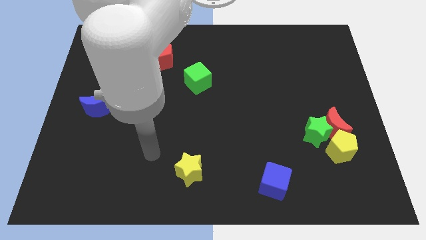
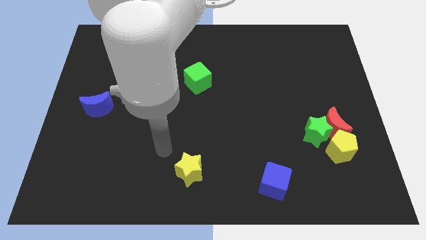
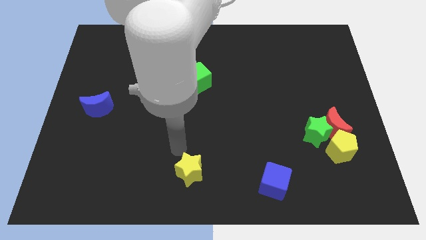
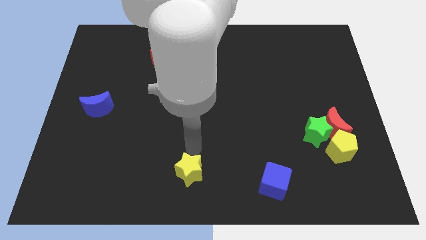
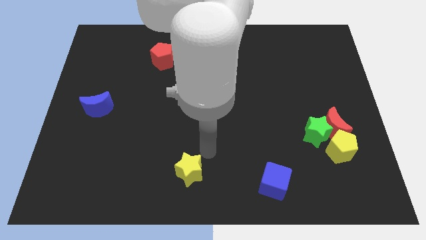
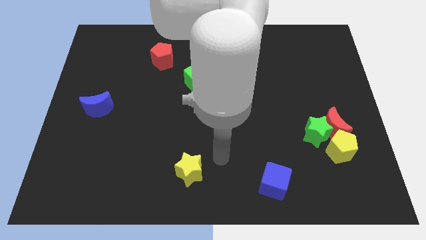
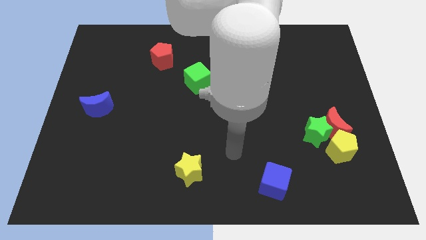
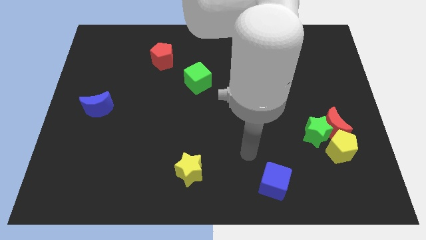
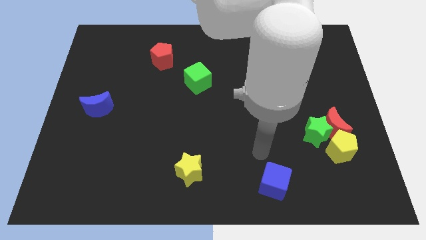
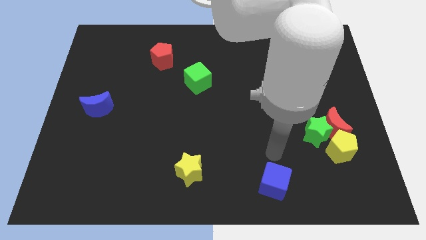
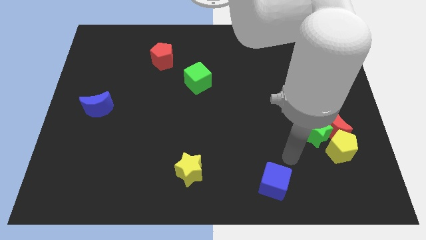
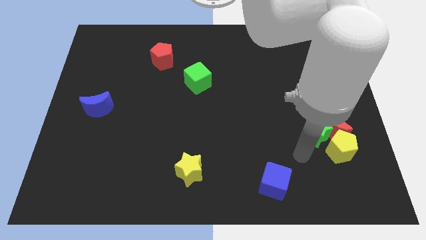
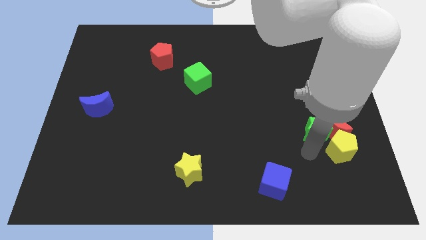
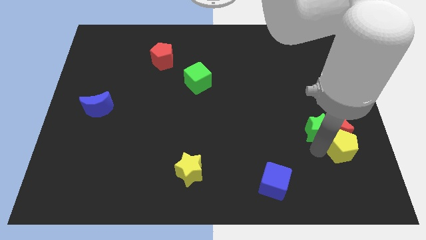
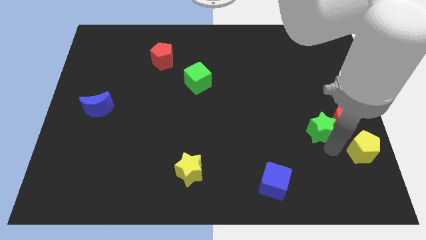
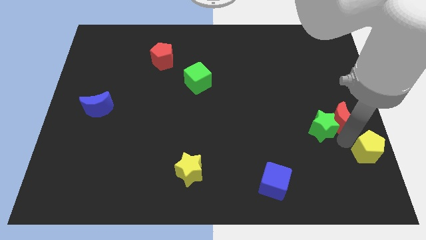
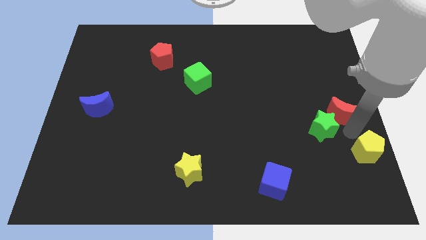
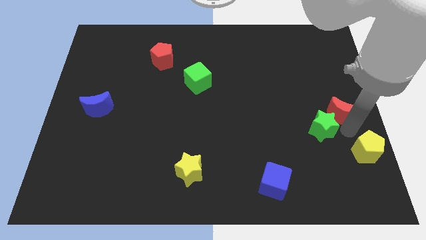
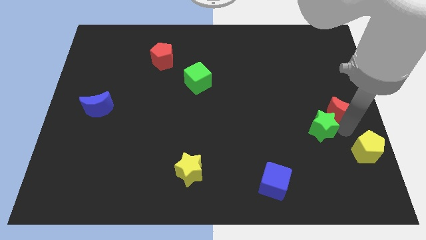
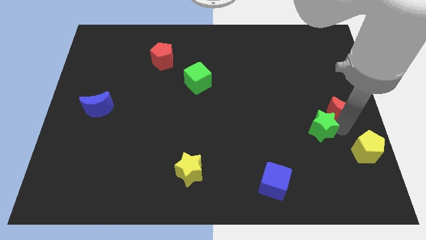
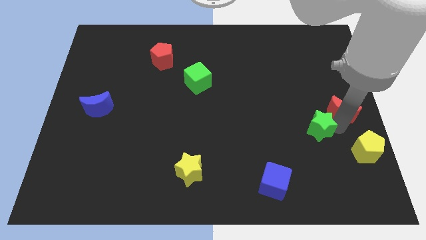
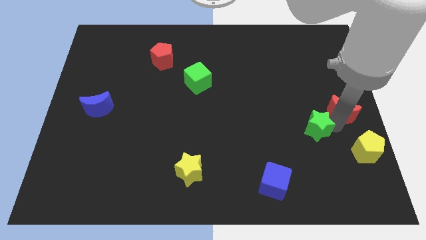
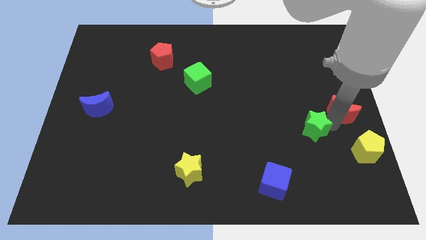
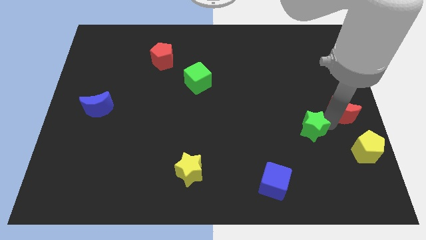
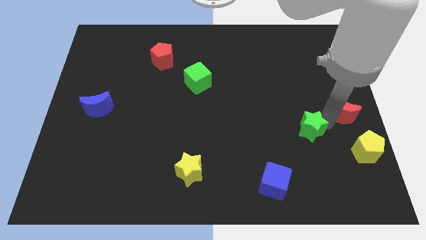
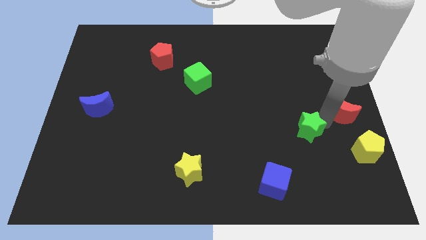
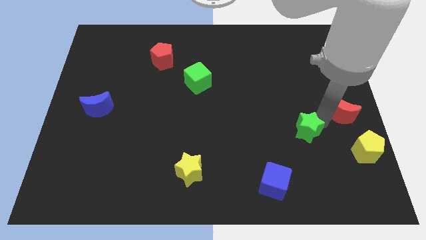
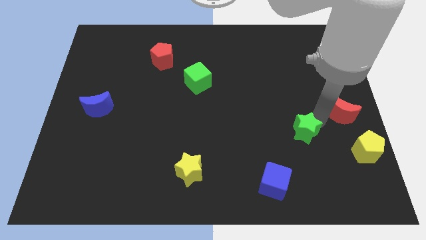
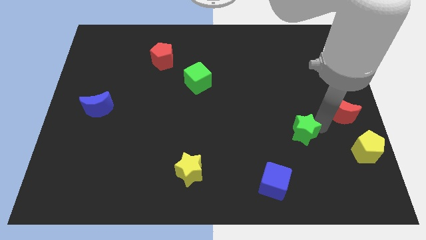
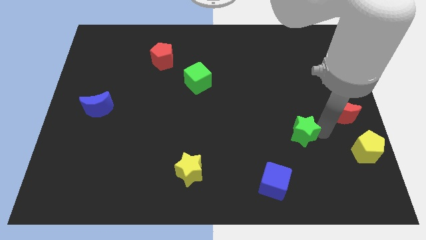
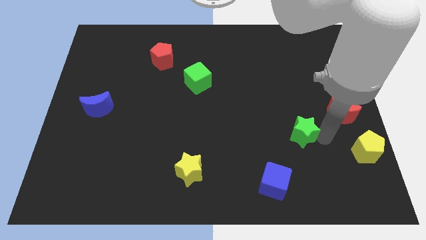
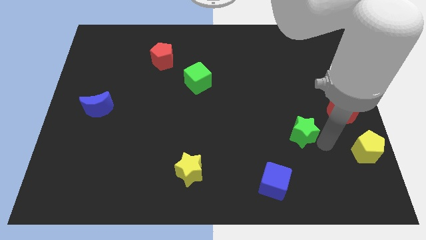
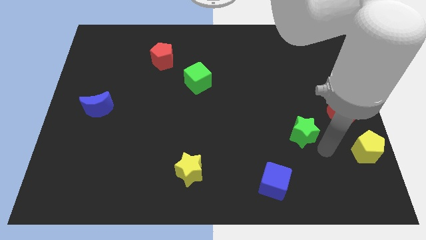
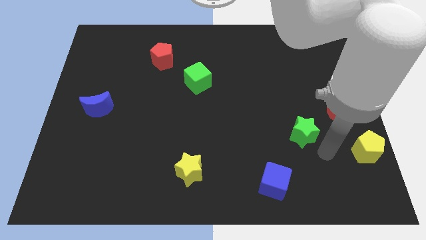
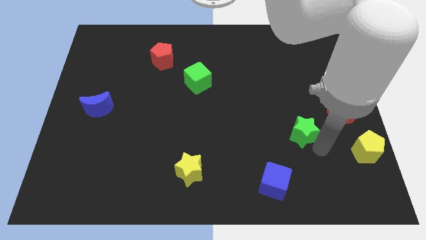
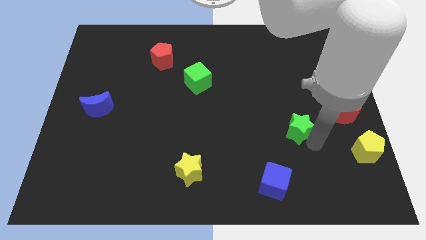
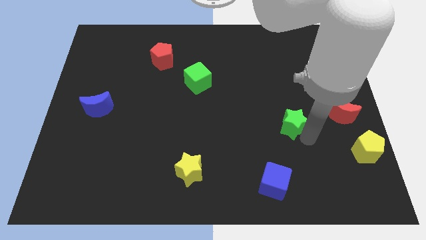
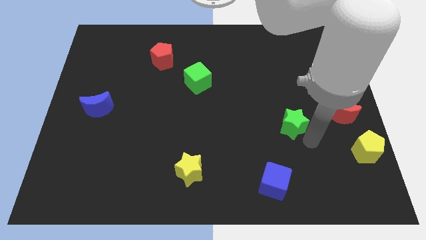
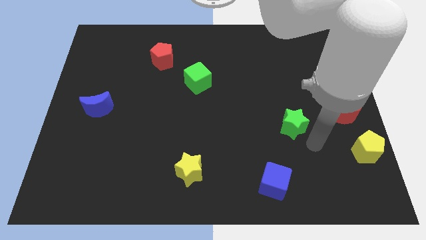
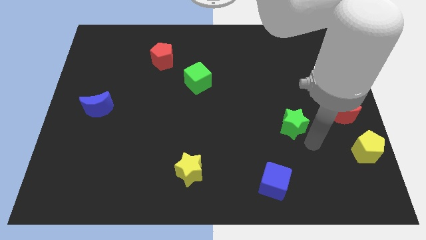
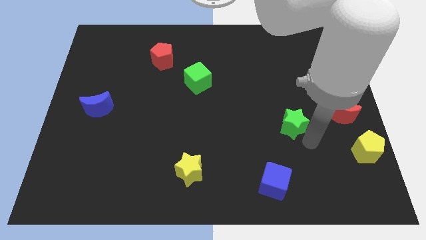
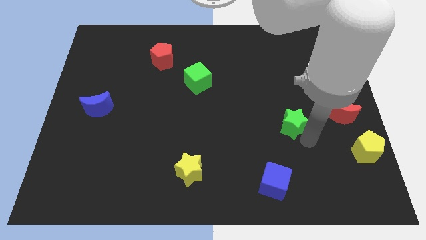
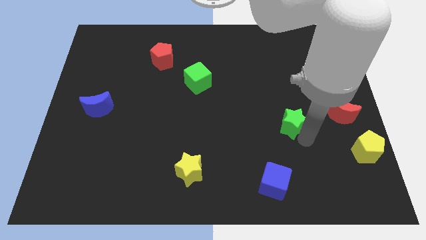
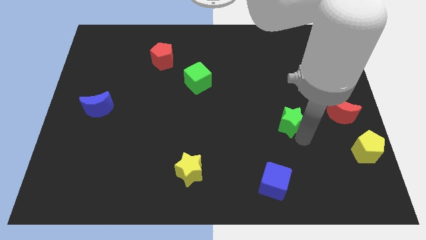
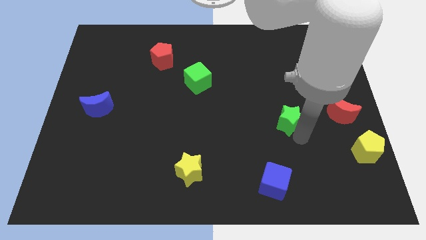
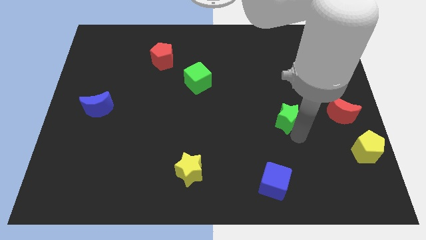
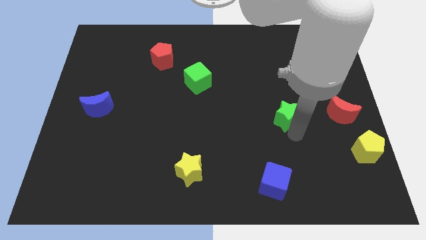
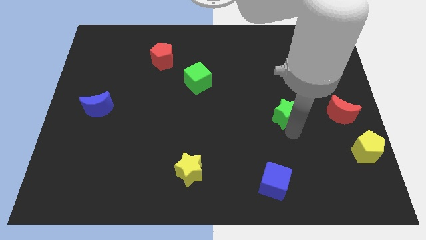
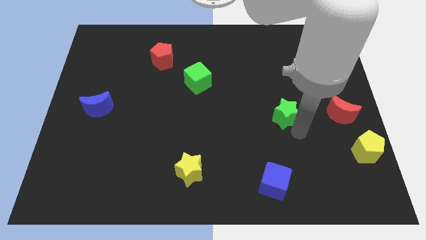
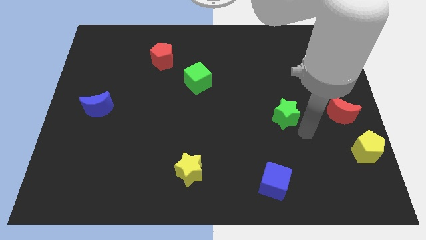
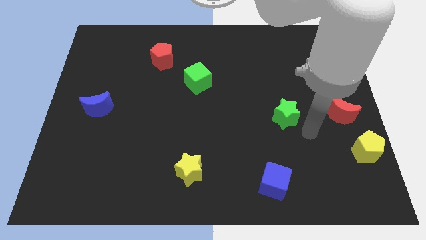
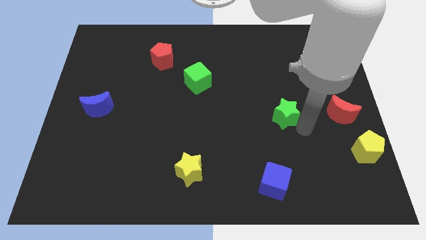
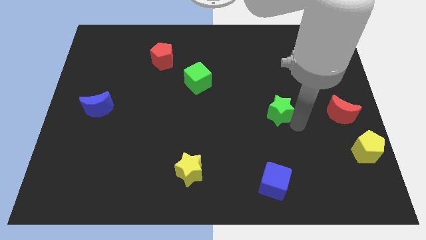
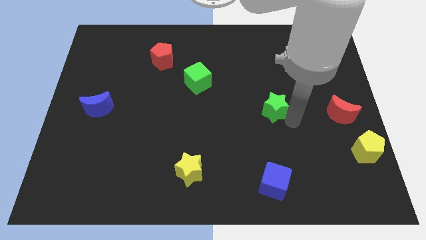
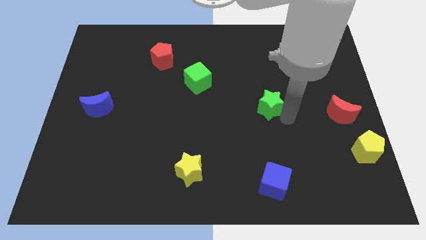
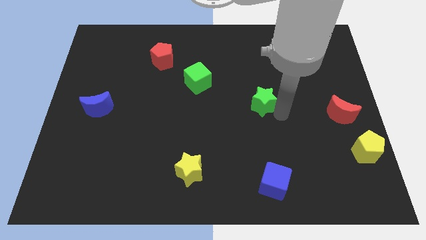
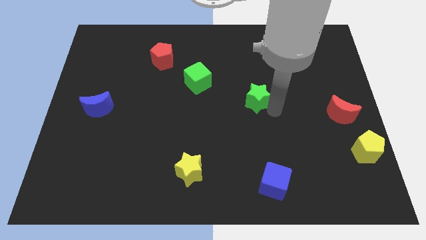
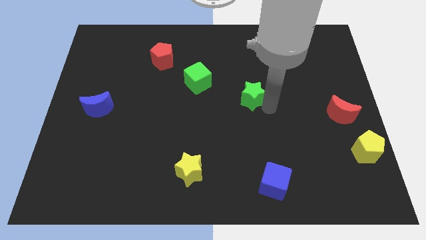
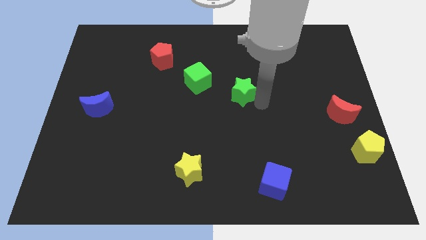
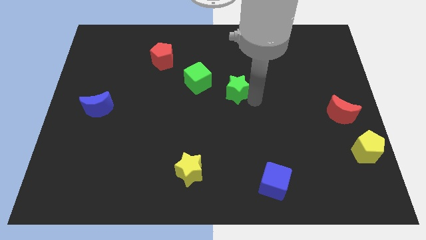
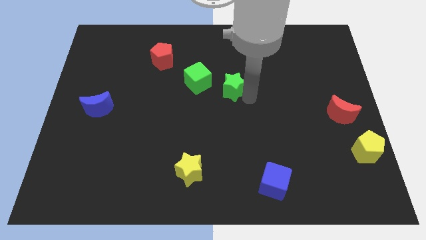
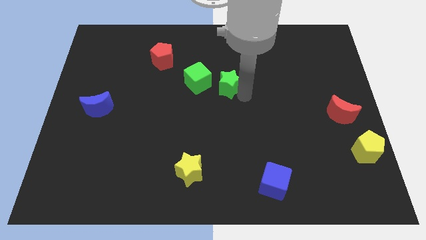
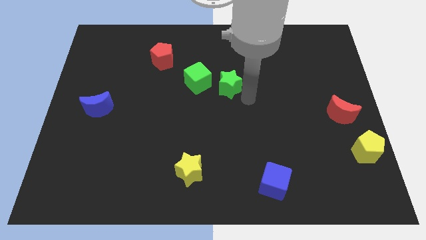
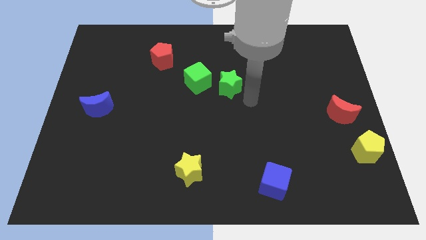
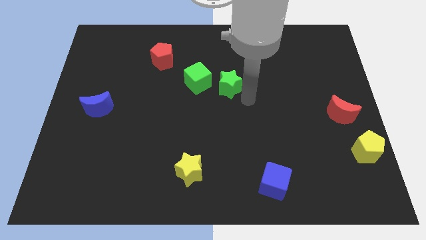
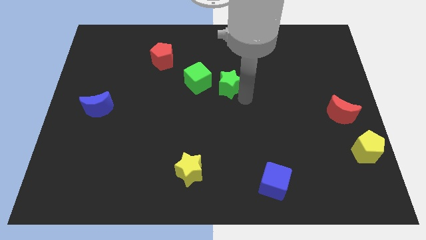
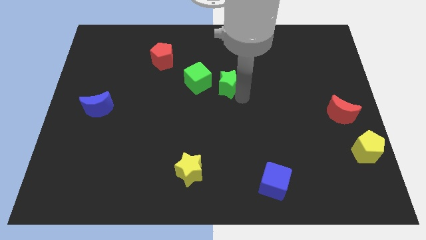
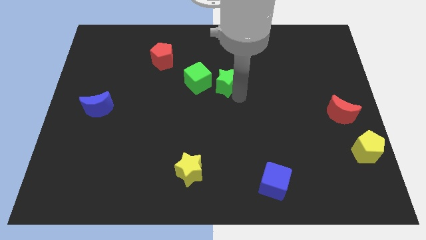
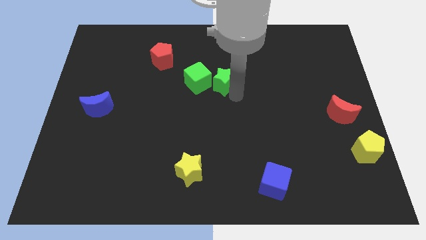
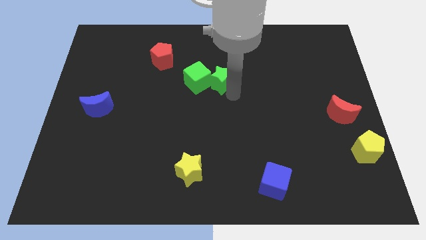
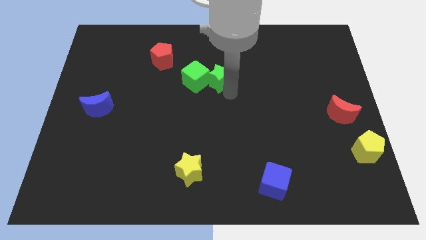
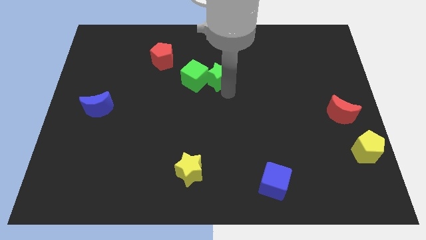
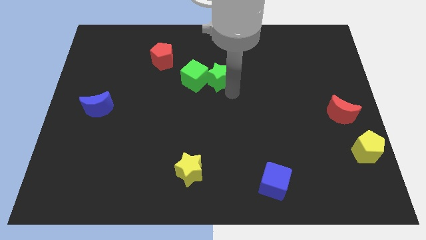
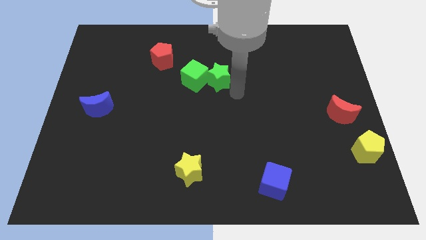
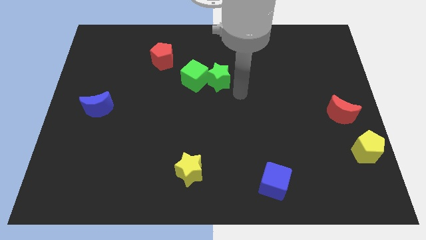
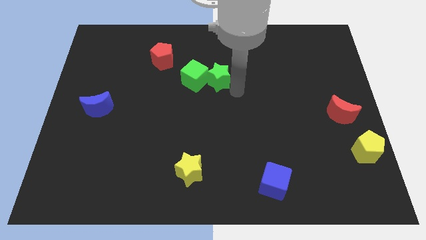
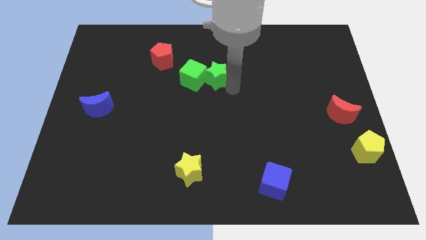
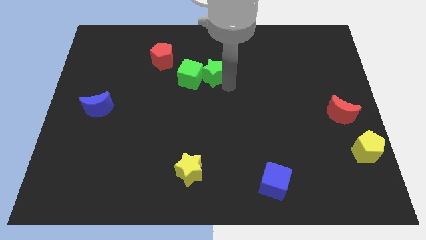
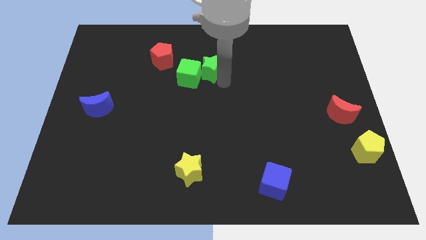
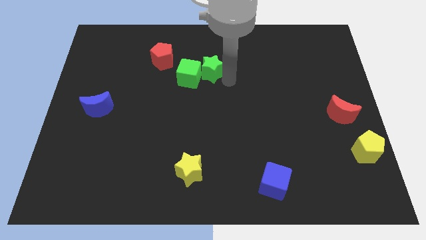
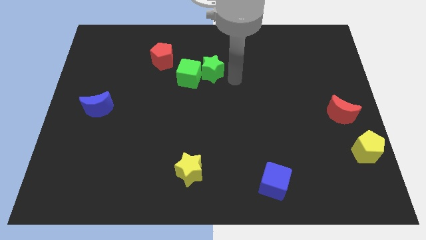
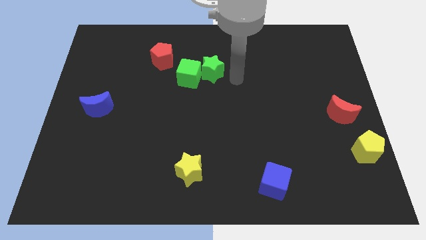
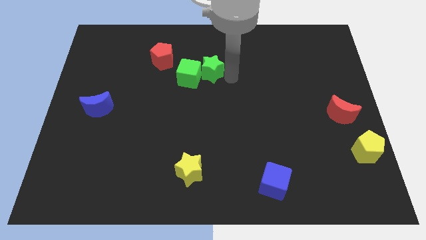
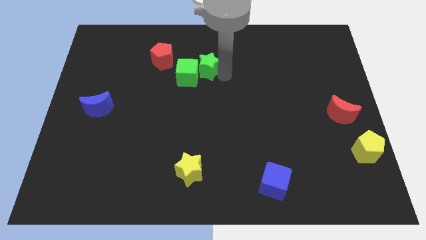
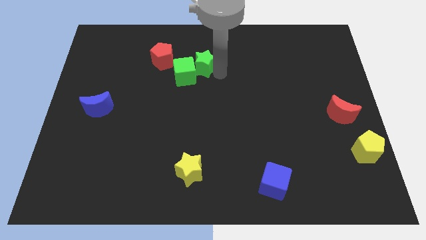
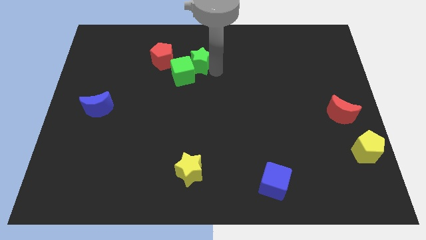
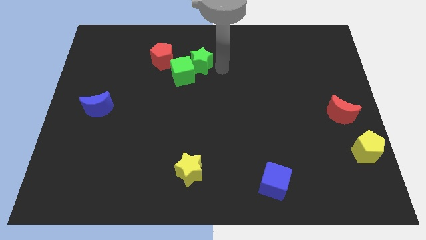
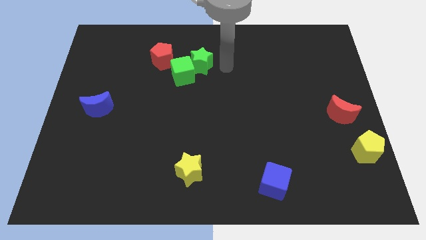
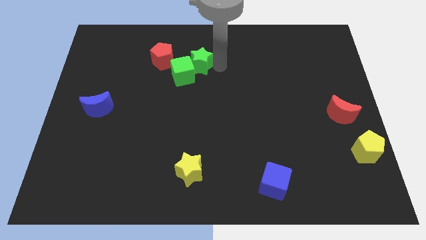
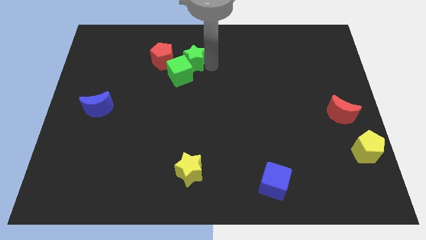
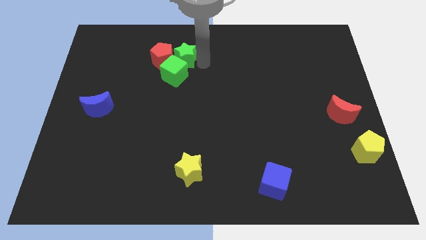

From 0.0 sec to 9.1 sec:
move the green star towards the red pentagon
